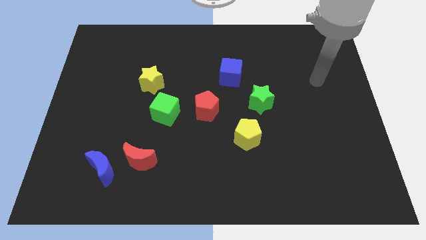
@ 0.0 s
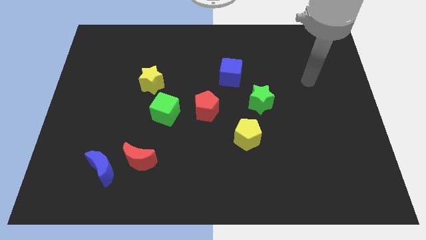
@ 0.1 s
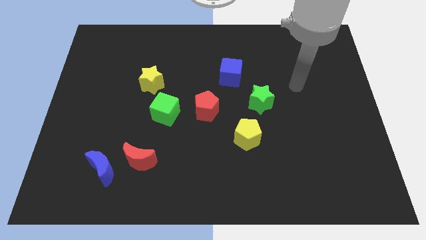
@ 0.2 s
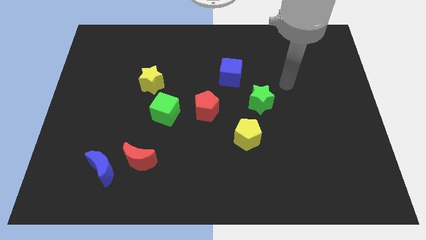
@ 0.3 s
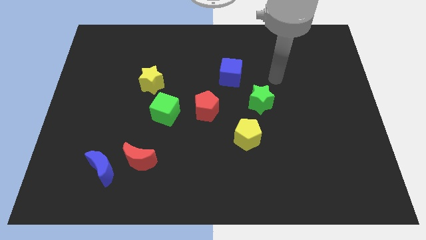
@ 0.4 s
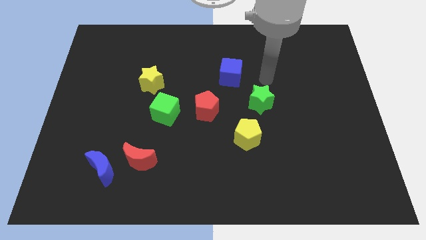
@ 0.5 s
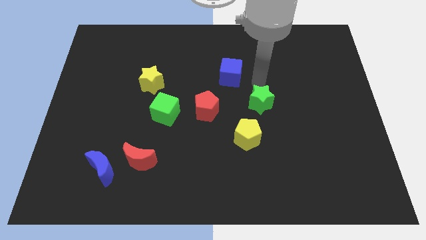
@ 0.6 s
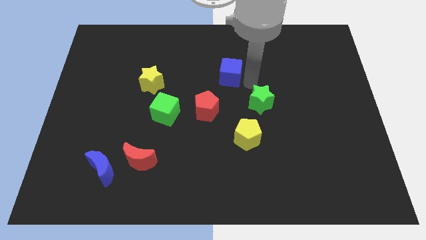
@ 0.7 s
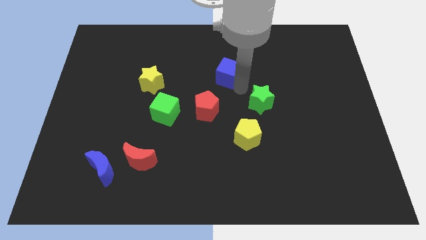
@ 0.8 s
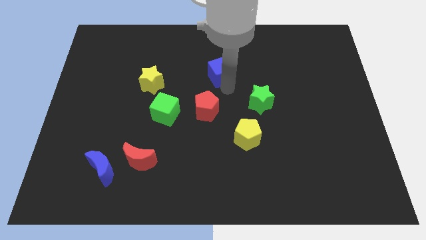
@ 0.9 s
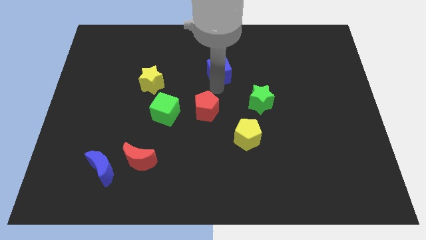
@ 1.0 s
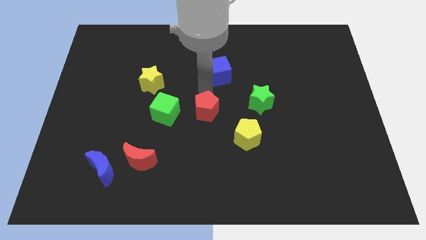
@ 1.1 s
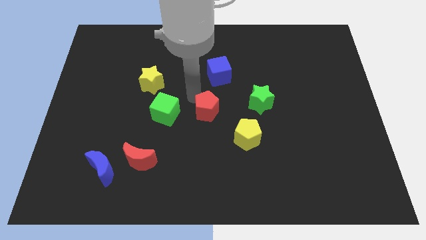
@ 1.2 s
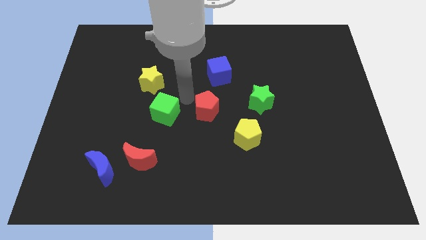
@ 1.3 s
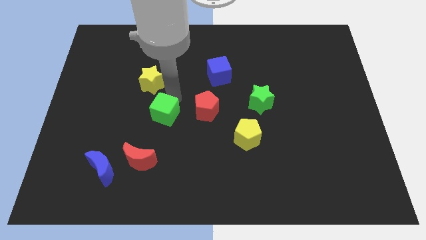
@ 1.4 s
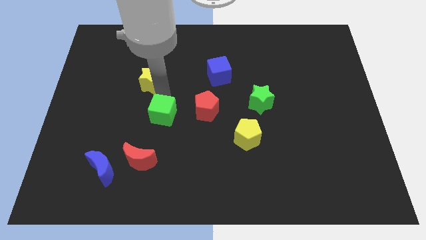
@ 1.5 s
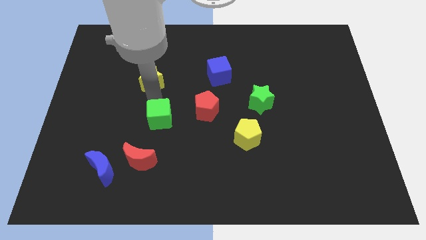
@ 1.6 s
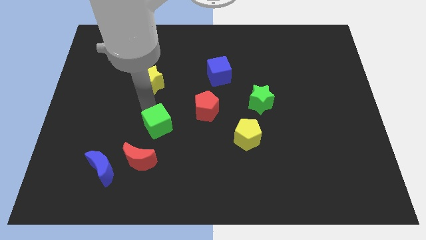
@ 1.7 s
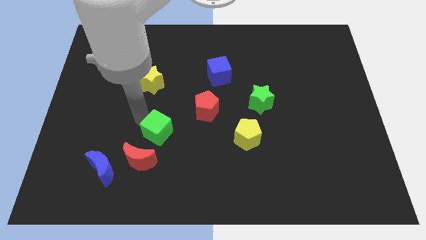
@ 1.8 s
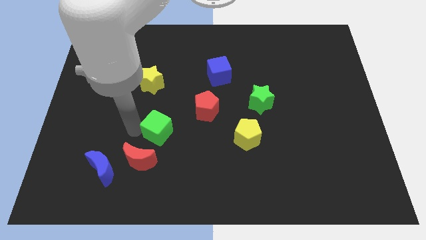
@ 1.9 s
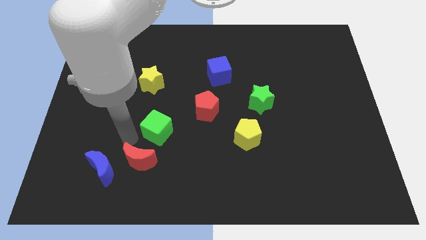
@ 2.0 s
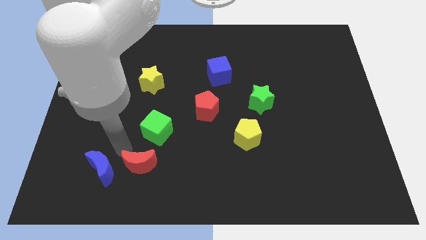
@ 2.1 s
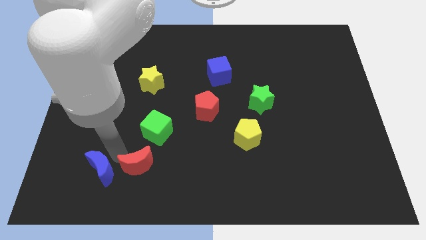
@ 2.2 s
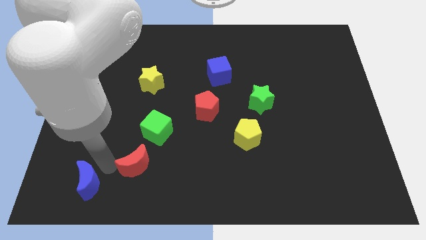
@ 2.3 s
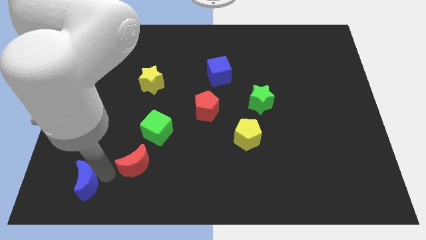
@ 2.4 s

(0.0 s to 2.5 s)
move the red moon away from the blue moon

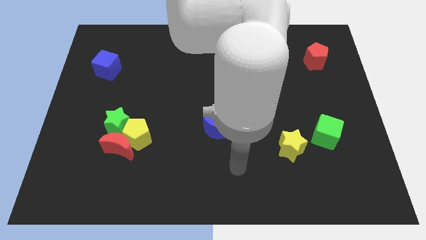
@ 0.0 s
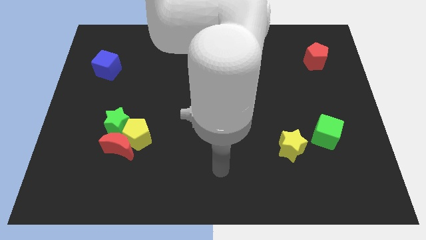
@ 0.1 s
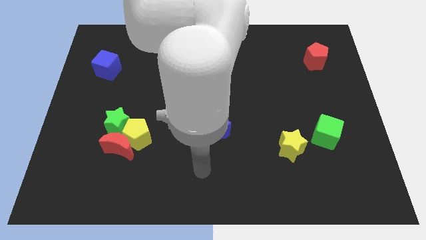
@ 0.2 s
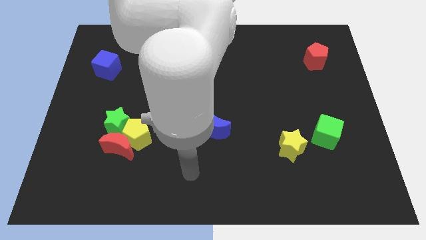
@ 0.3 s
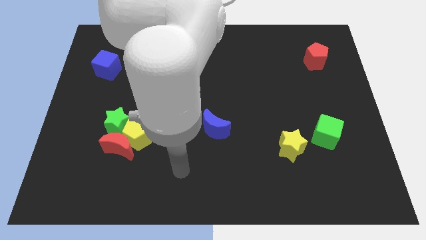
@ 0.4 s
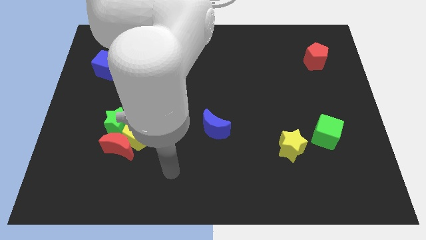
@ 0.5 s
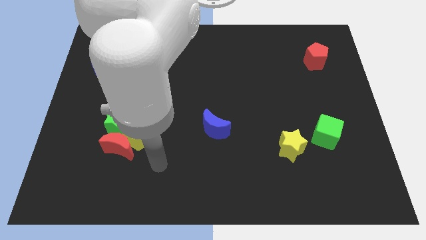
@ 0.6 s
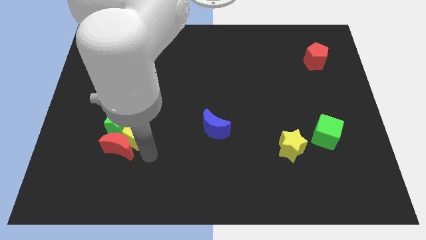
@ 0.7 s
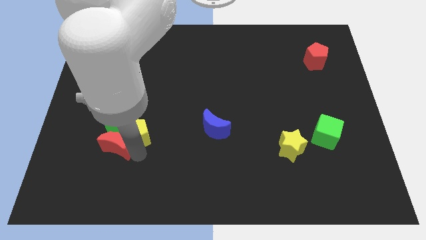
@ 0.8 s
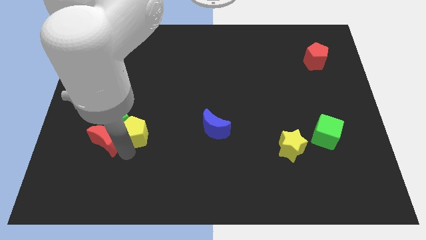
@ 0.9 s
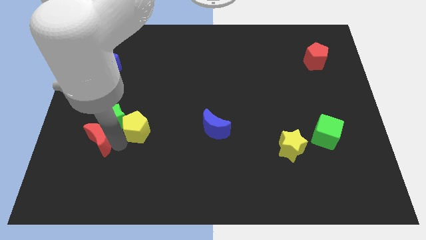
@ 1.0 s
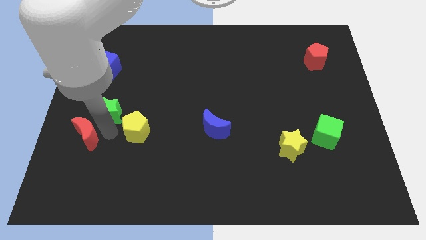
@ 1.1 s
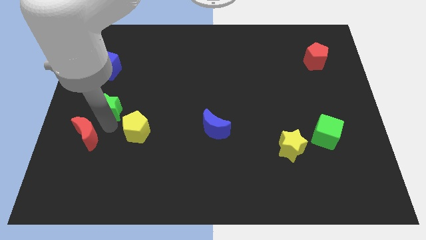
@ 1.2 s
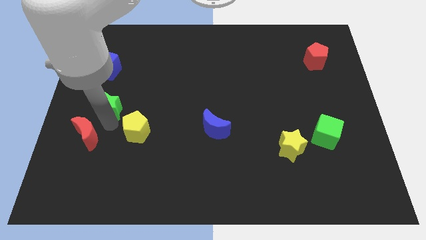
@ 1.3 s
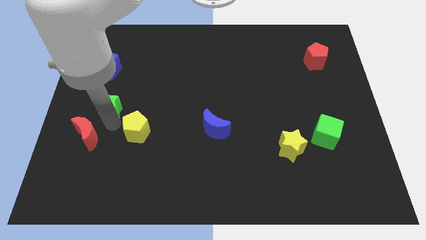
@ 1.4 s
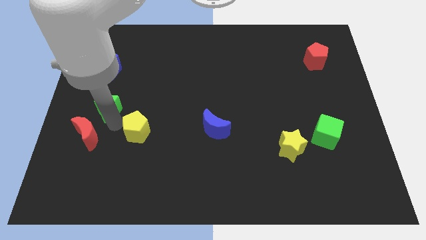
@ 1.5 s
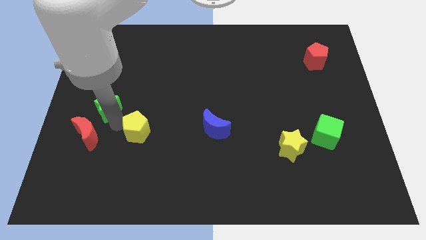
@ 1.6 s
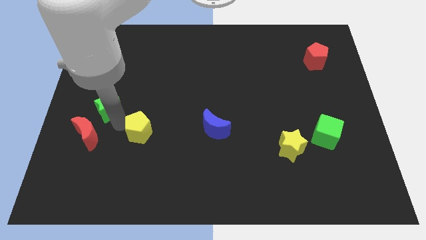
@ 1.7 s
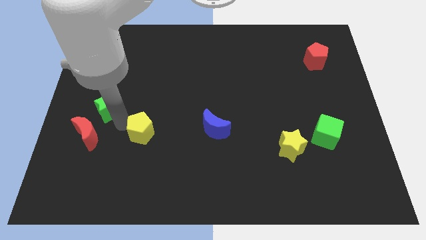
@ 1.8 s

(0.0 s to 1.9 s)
pull the yellow pentagon apart from the red moon and green star

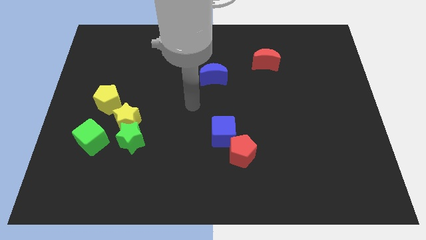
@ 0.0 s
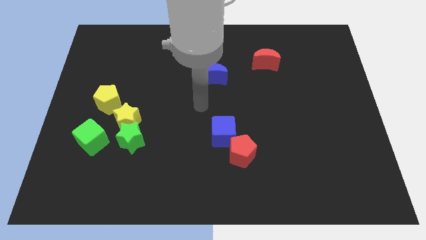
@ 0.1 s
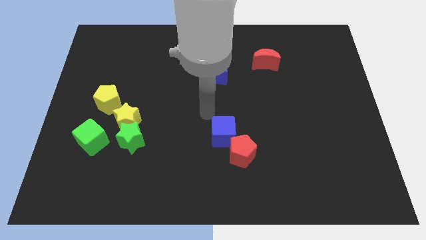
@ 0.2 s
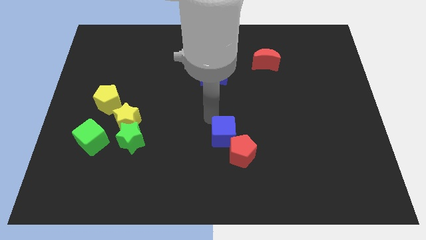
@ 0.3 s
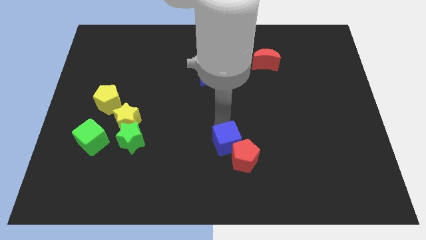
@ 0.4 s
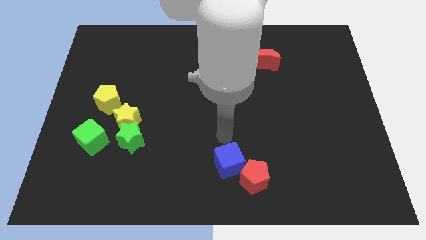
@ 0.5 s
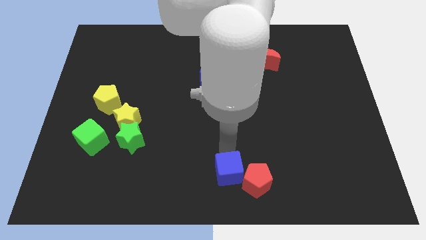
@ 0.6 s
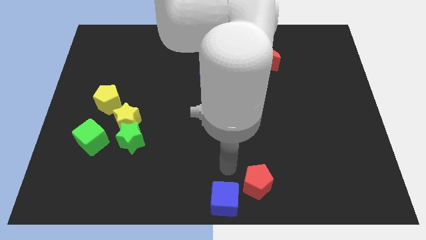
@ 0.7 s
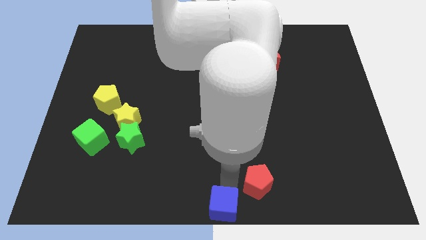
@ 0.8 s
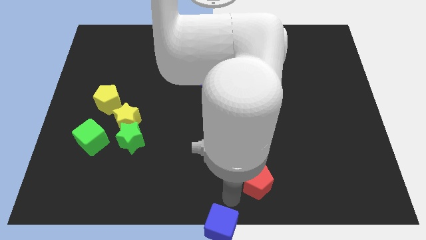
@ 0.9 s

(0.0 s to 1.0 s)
move the red pentagon away from the blue cube

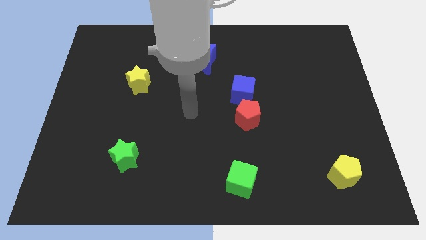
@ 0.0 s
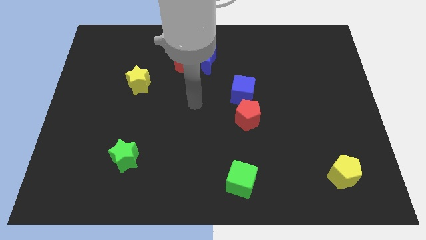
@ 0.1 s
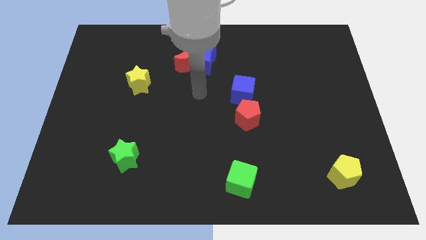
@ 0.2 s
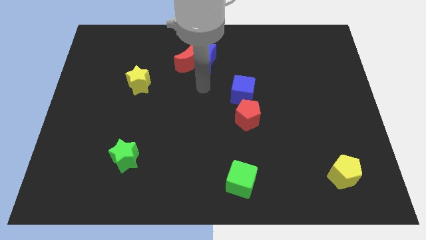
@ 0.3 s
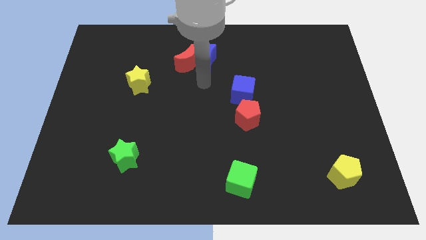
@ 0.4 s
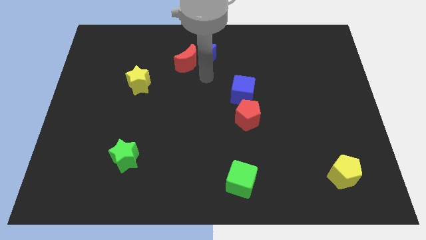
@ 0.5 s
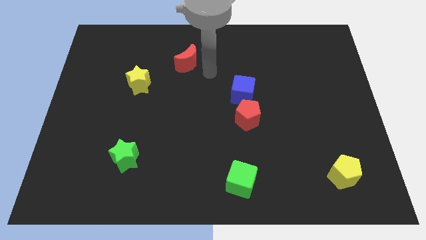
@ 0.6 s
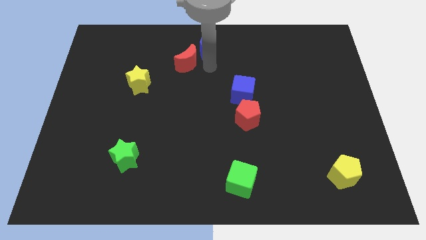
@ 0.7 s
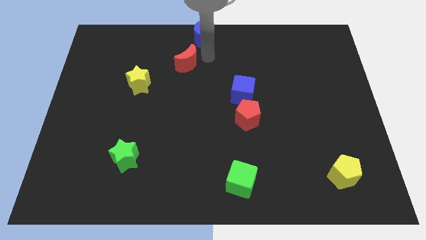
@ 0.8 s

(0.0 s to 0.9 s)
pull the red moon apart from the blue moon

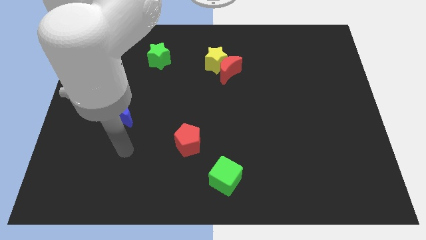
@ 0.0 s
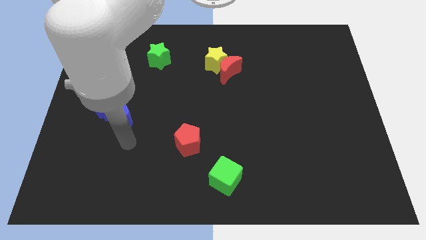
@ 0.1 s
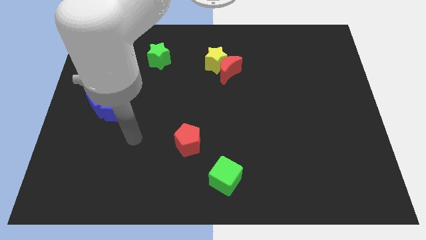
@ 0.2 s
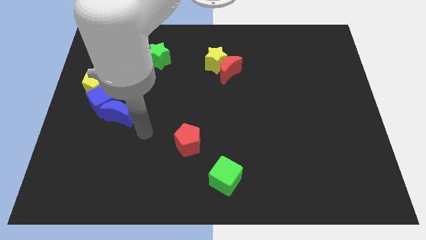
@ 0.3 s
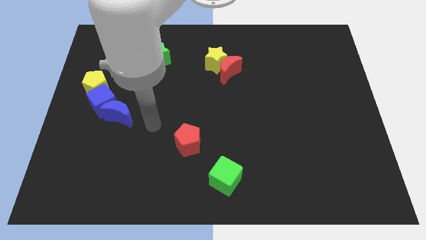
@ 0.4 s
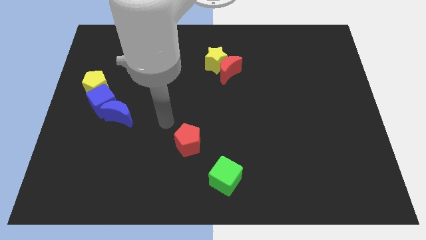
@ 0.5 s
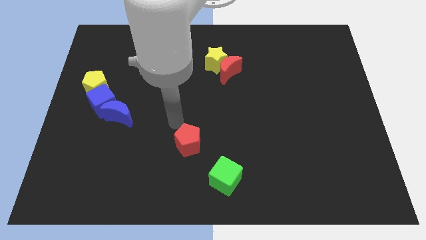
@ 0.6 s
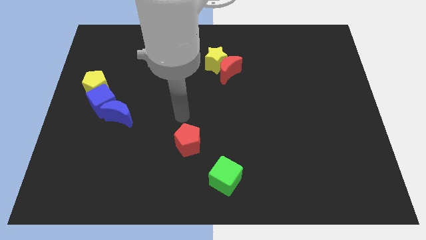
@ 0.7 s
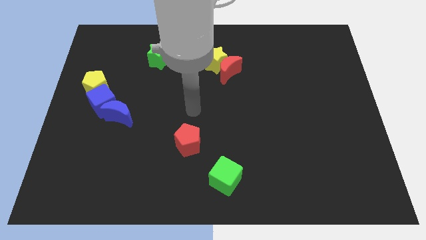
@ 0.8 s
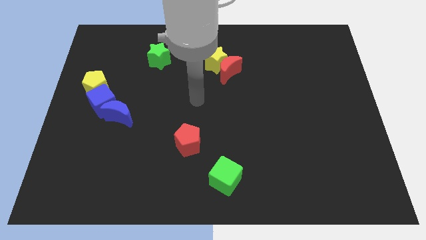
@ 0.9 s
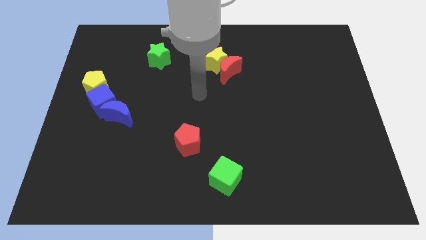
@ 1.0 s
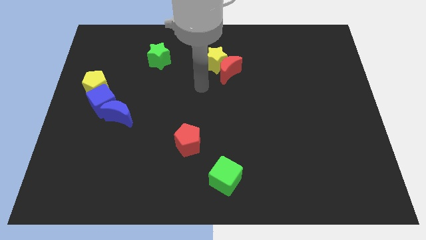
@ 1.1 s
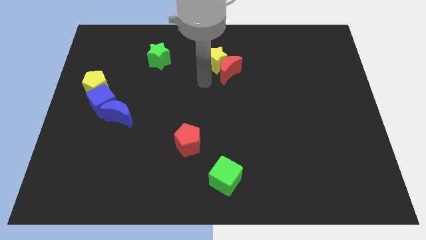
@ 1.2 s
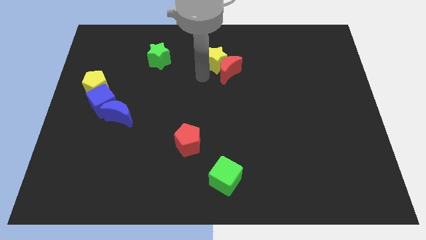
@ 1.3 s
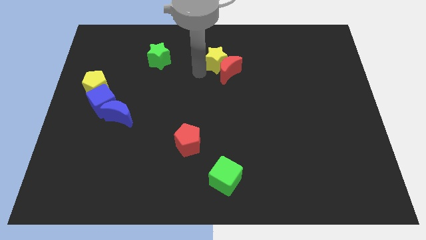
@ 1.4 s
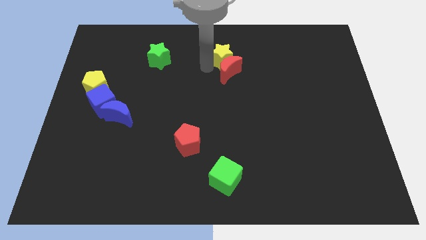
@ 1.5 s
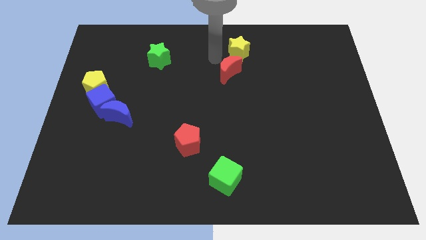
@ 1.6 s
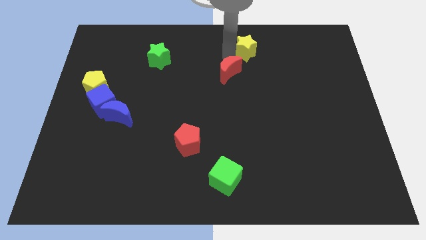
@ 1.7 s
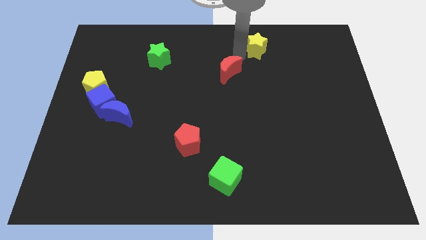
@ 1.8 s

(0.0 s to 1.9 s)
separate the red moon from the yellow star

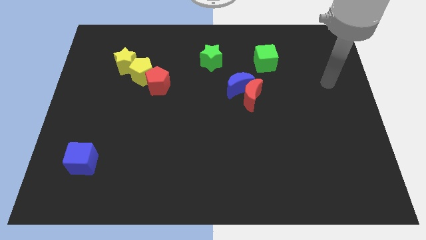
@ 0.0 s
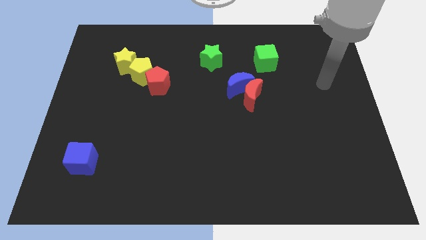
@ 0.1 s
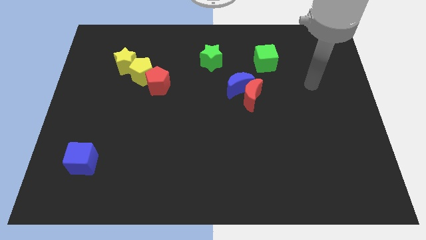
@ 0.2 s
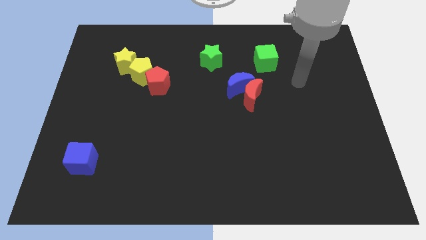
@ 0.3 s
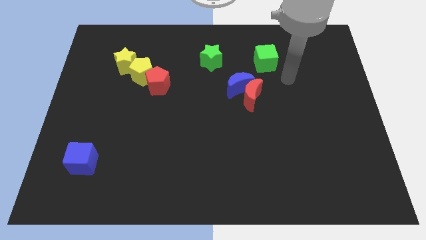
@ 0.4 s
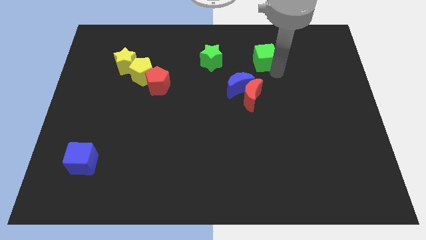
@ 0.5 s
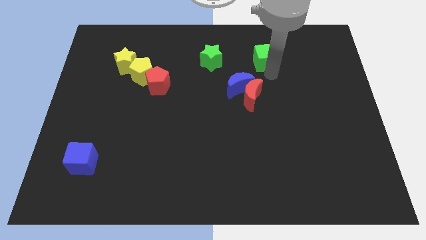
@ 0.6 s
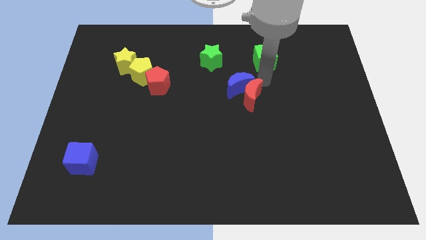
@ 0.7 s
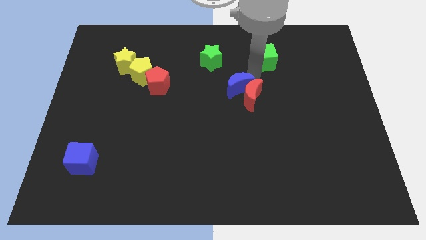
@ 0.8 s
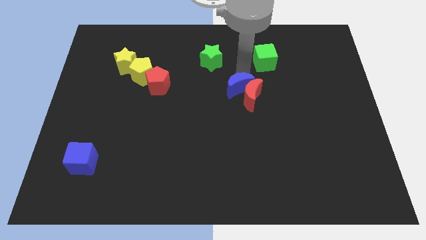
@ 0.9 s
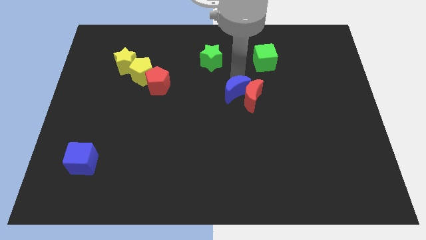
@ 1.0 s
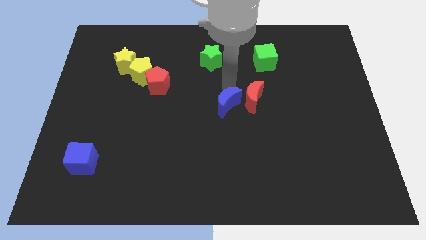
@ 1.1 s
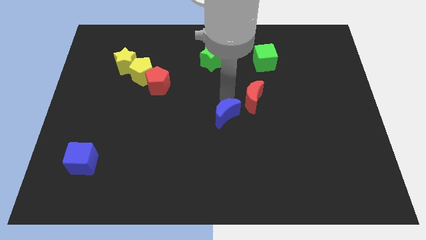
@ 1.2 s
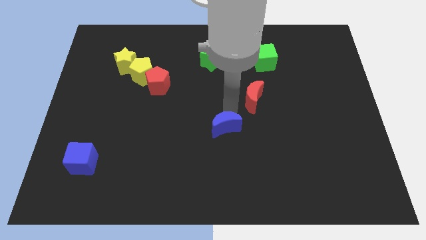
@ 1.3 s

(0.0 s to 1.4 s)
separate the red moon from the blue moon
